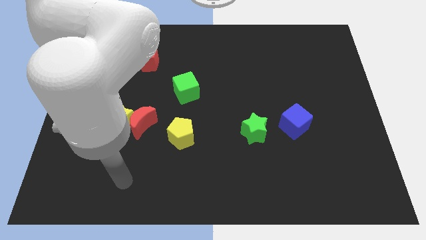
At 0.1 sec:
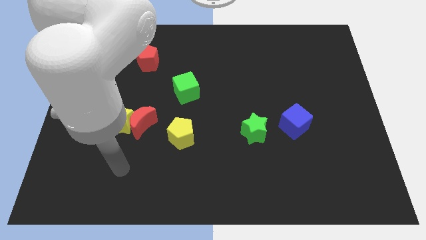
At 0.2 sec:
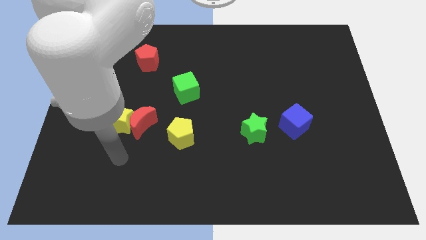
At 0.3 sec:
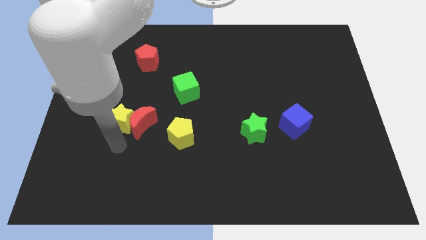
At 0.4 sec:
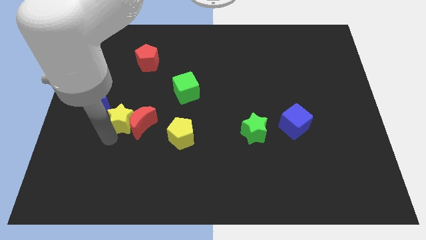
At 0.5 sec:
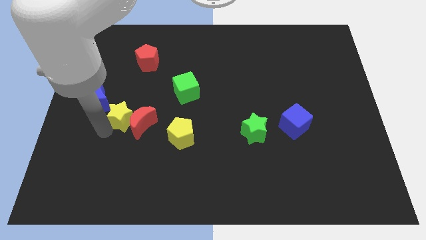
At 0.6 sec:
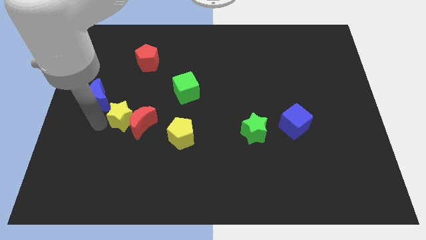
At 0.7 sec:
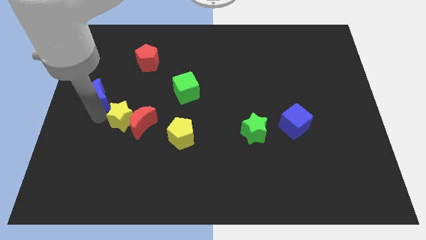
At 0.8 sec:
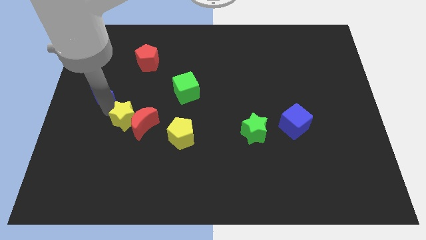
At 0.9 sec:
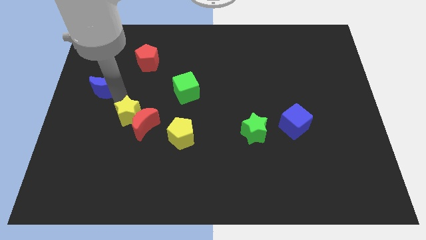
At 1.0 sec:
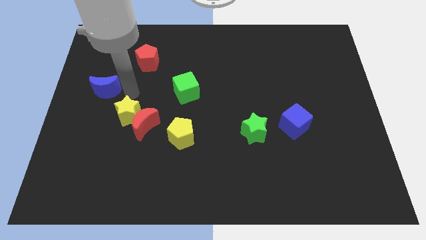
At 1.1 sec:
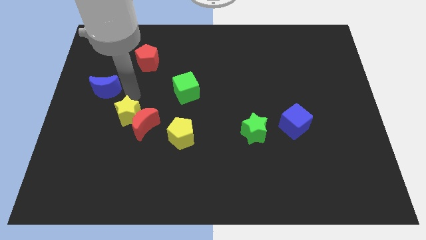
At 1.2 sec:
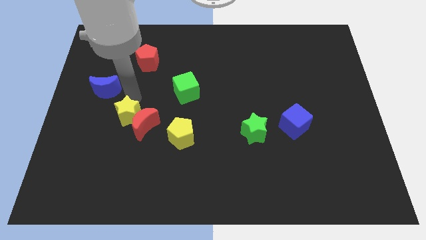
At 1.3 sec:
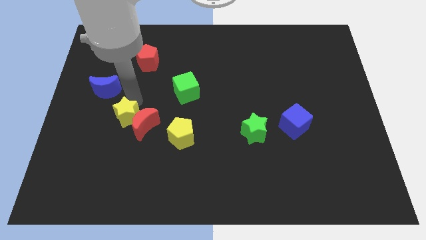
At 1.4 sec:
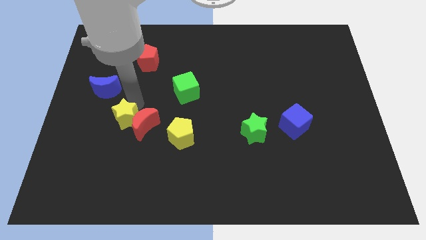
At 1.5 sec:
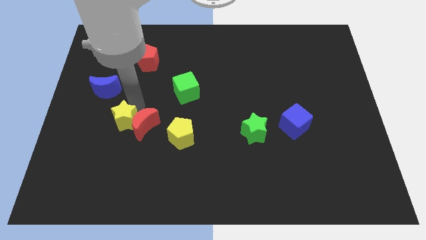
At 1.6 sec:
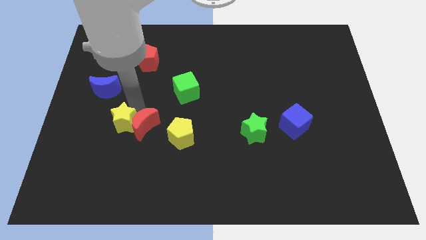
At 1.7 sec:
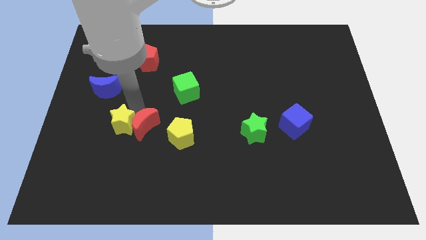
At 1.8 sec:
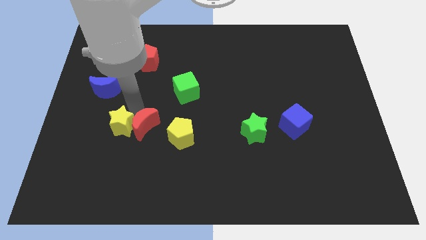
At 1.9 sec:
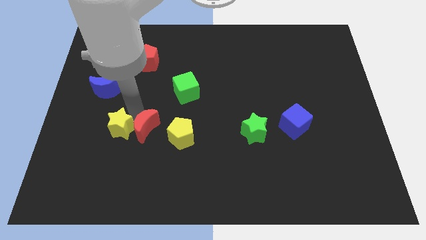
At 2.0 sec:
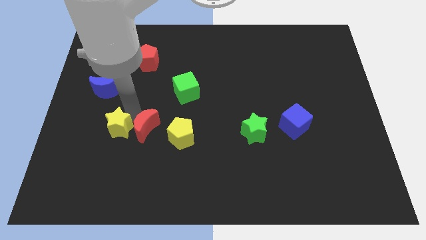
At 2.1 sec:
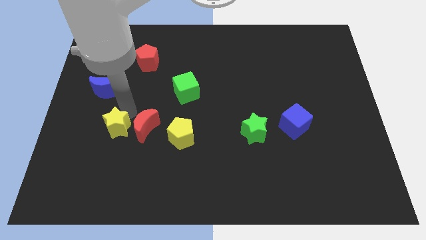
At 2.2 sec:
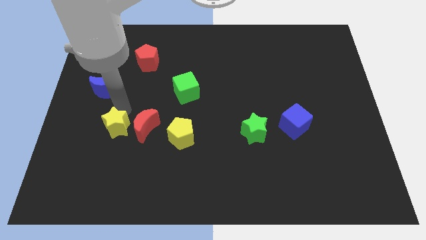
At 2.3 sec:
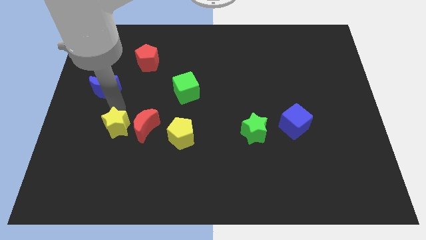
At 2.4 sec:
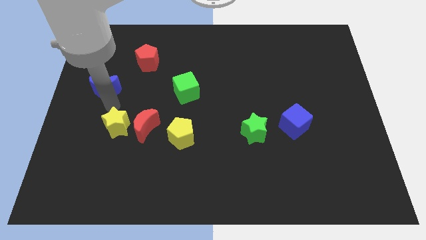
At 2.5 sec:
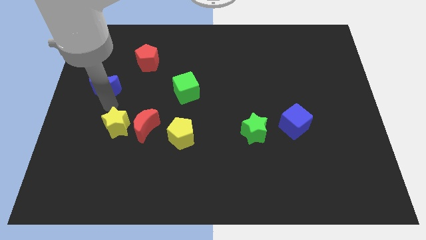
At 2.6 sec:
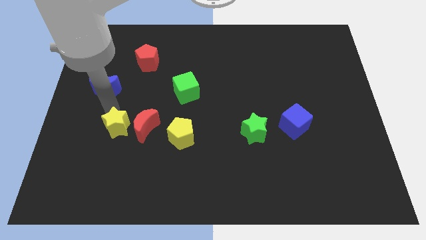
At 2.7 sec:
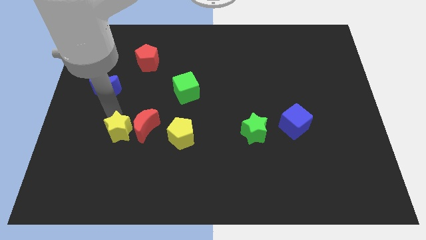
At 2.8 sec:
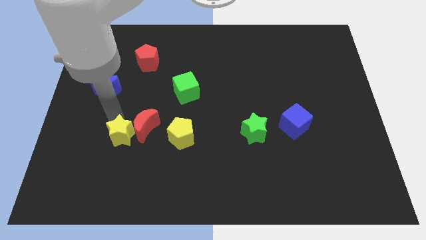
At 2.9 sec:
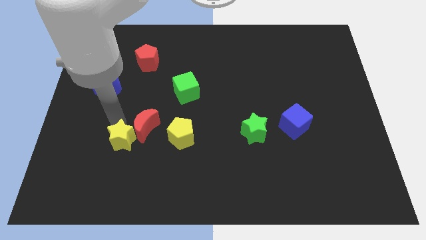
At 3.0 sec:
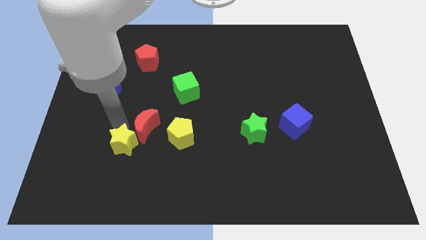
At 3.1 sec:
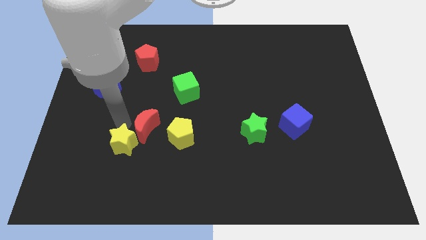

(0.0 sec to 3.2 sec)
separate the yellow star from the red moon and blue moon

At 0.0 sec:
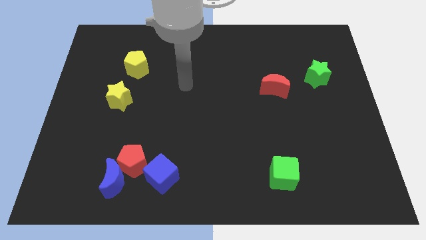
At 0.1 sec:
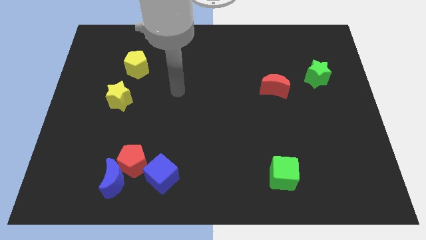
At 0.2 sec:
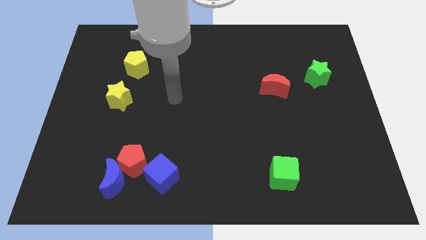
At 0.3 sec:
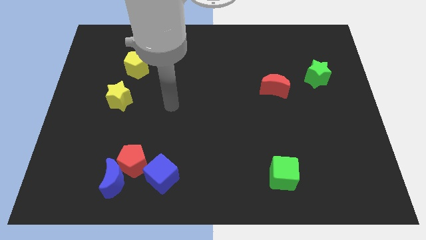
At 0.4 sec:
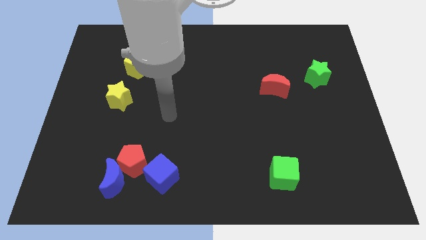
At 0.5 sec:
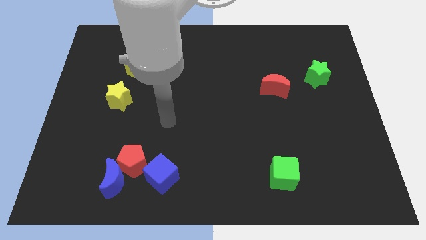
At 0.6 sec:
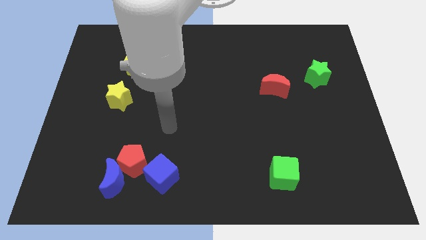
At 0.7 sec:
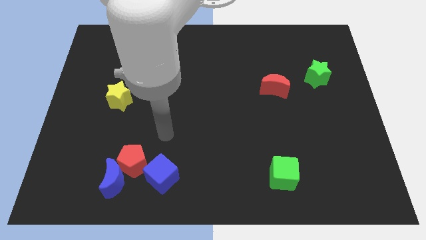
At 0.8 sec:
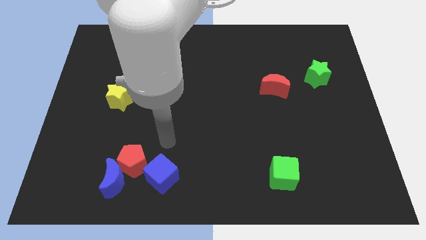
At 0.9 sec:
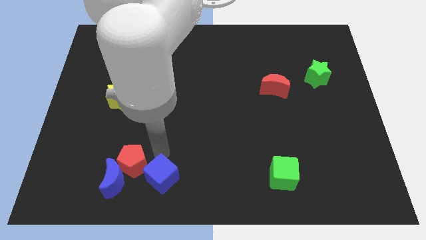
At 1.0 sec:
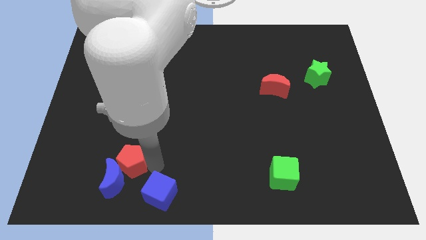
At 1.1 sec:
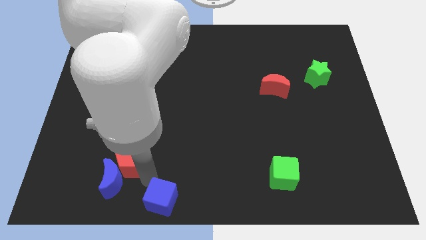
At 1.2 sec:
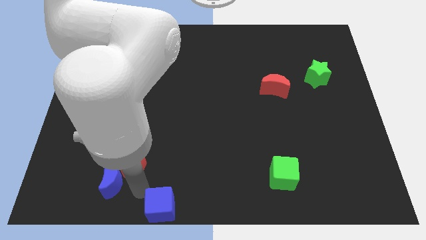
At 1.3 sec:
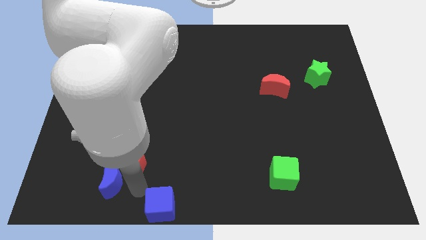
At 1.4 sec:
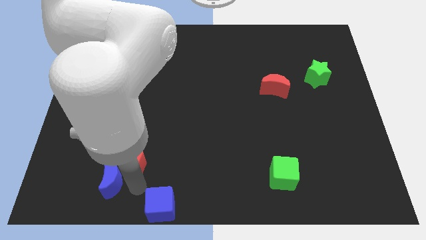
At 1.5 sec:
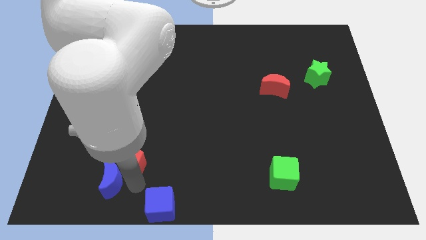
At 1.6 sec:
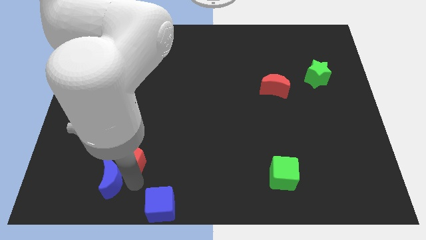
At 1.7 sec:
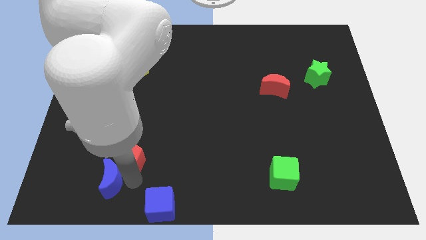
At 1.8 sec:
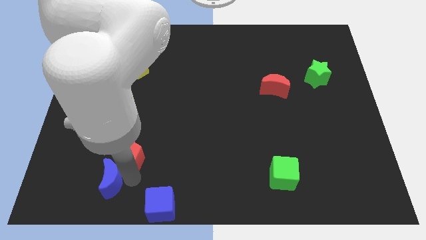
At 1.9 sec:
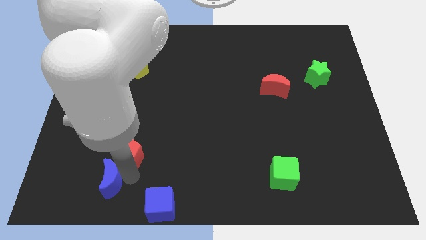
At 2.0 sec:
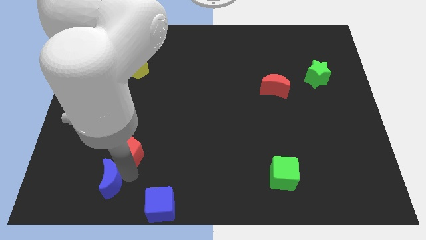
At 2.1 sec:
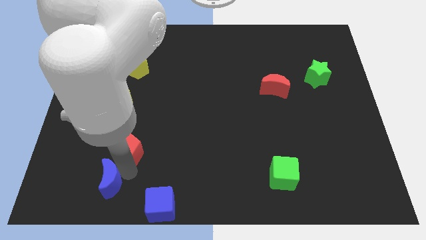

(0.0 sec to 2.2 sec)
separate the red pentagon from the blue moon and blue cube

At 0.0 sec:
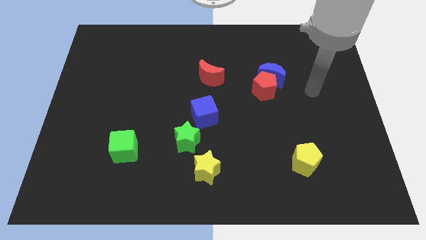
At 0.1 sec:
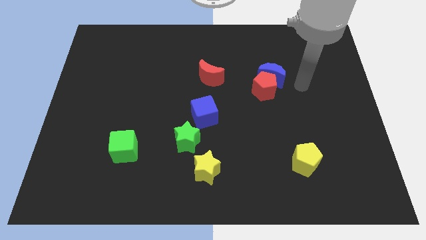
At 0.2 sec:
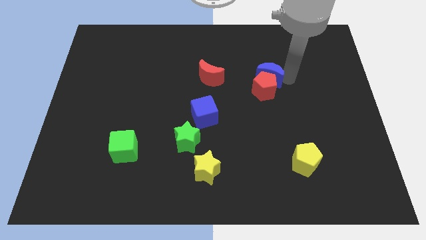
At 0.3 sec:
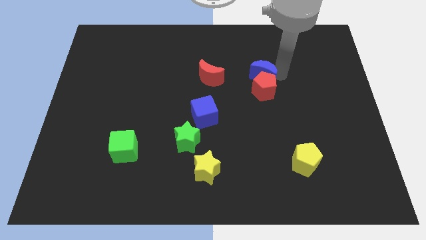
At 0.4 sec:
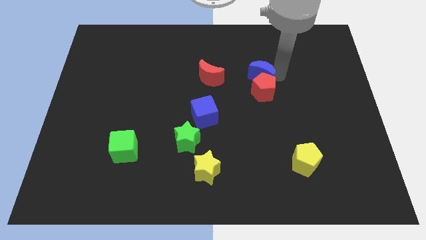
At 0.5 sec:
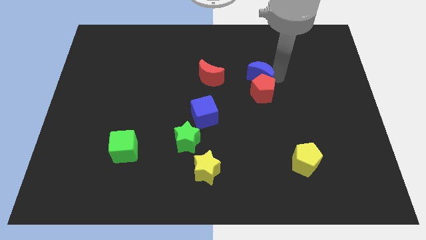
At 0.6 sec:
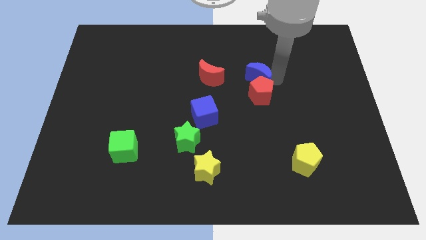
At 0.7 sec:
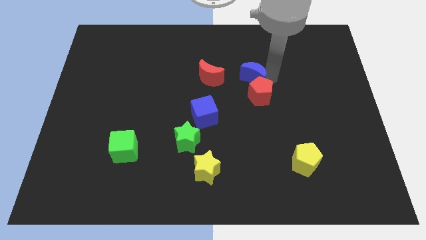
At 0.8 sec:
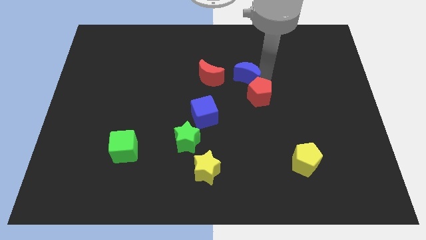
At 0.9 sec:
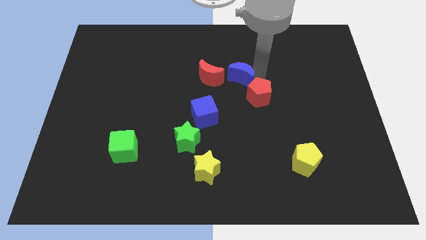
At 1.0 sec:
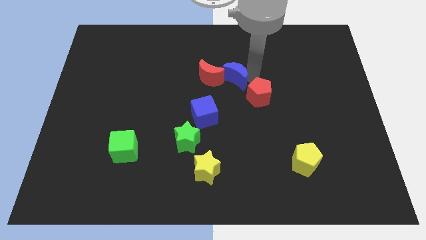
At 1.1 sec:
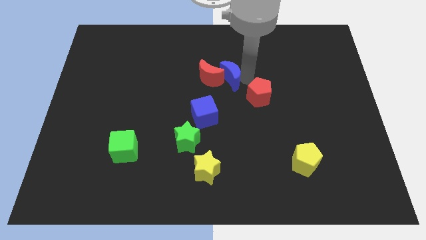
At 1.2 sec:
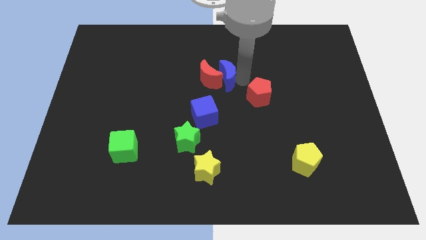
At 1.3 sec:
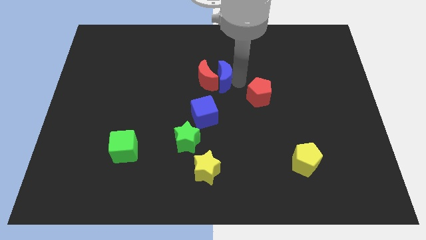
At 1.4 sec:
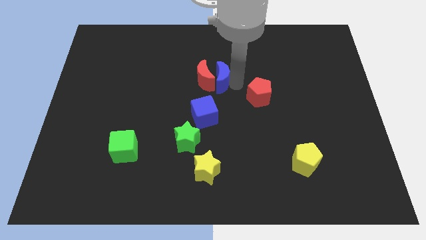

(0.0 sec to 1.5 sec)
pull the red pentagon apart from the blue moon

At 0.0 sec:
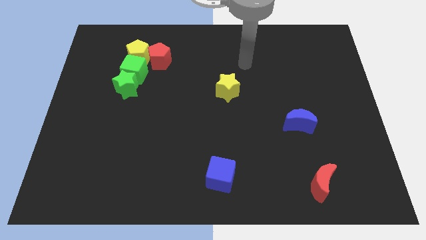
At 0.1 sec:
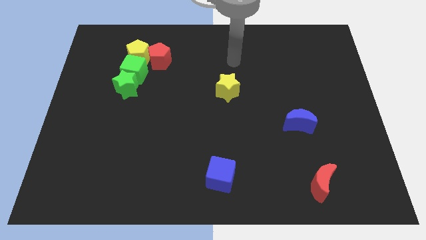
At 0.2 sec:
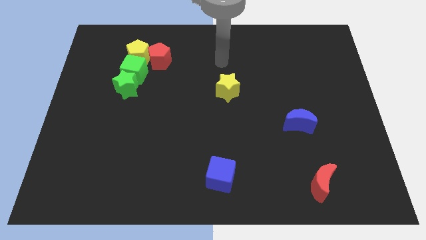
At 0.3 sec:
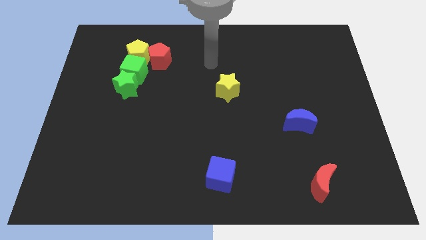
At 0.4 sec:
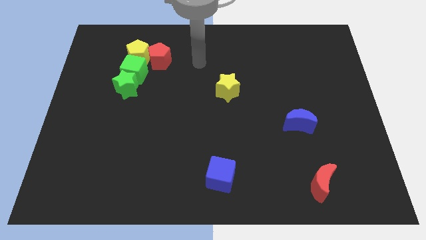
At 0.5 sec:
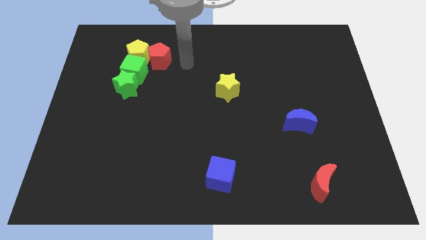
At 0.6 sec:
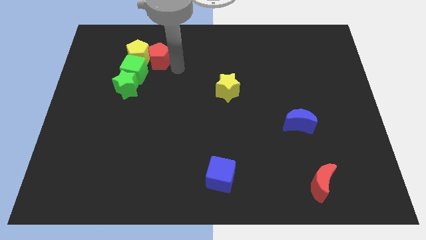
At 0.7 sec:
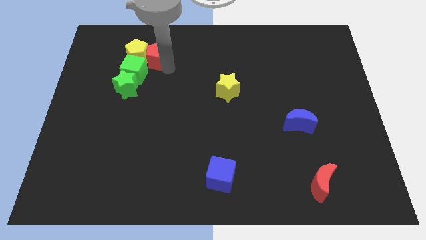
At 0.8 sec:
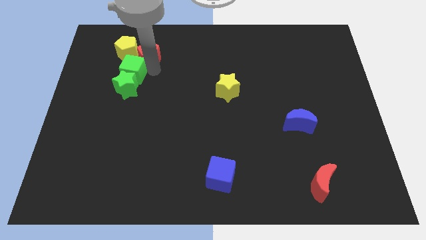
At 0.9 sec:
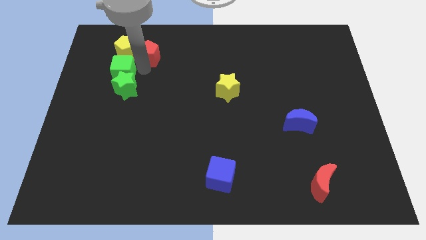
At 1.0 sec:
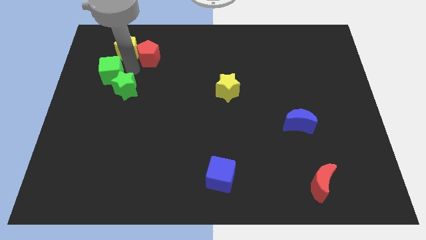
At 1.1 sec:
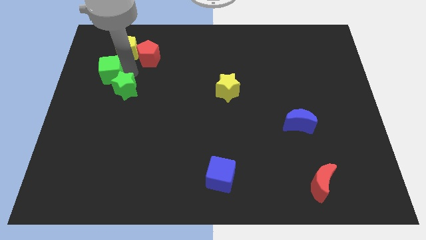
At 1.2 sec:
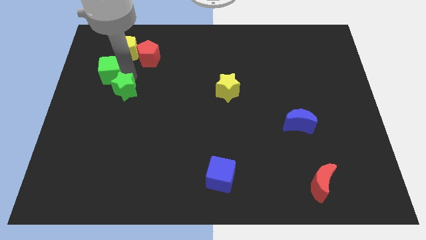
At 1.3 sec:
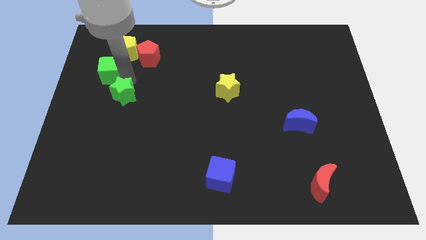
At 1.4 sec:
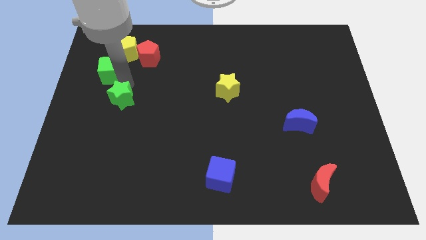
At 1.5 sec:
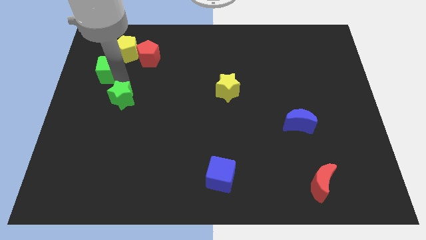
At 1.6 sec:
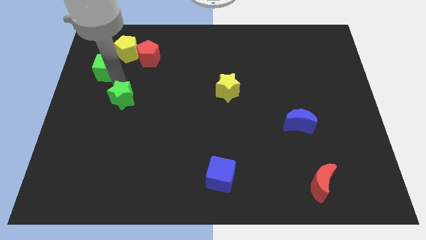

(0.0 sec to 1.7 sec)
pull the green star apart from the green cube

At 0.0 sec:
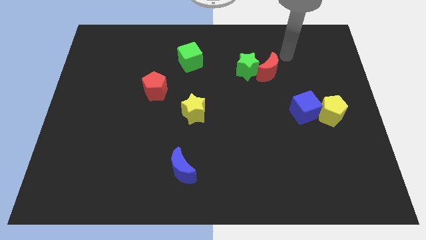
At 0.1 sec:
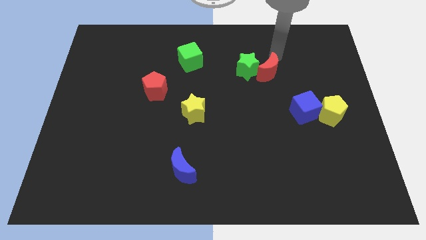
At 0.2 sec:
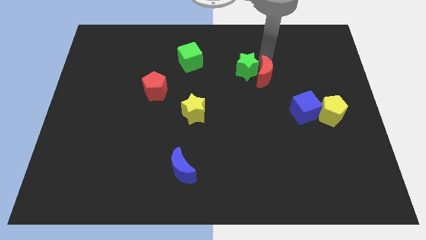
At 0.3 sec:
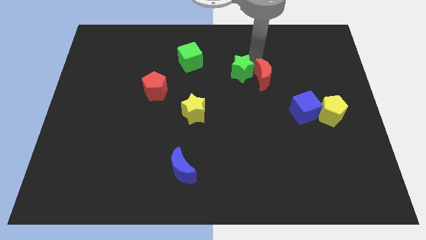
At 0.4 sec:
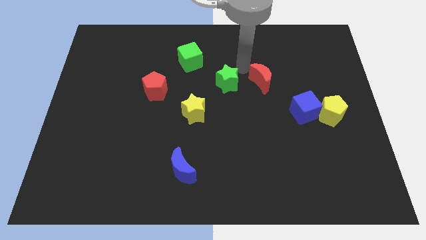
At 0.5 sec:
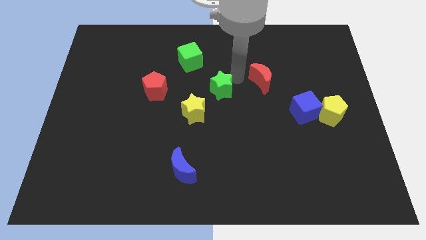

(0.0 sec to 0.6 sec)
pull the red moon apart from the green star

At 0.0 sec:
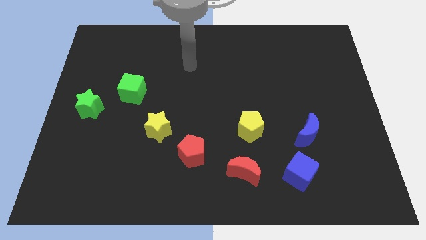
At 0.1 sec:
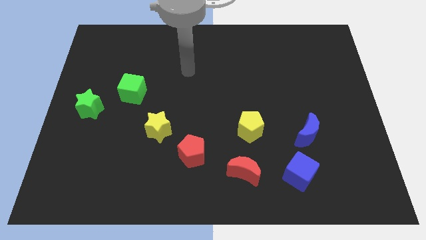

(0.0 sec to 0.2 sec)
separate the red pentagon from the yellow star
